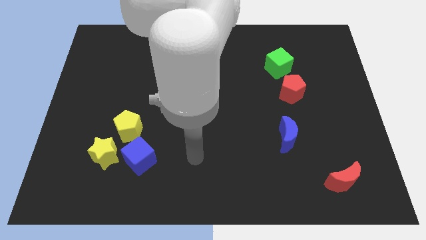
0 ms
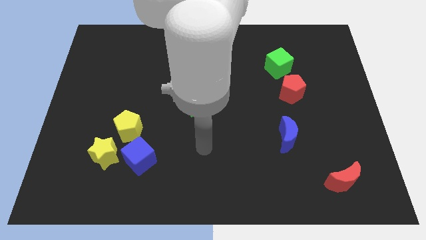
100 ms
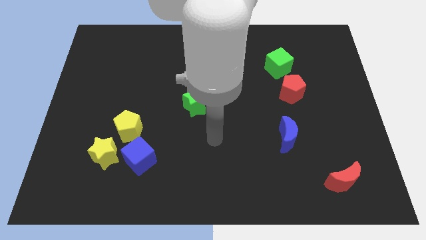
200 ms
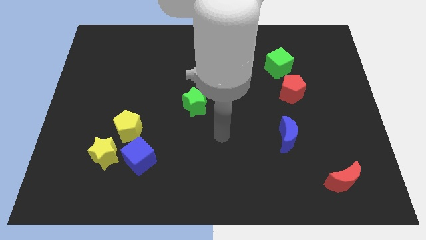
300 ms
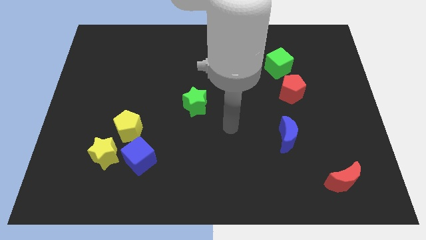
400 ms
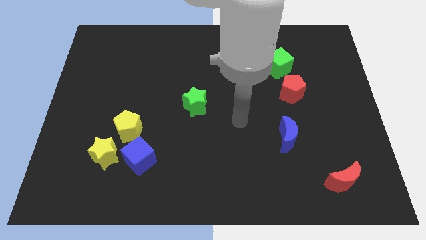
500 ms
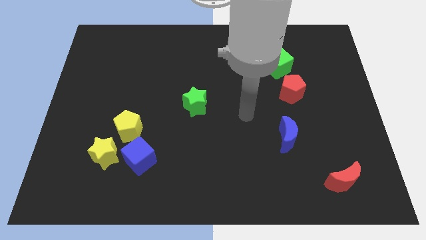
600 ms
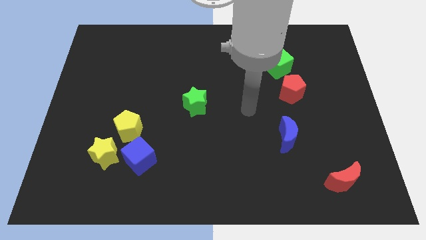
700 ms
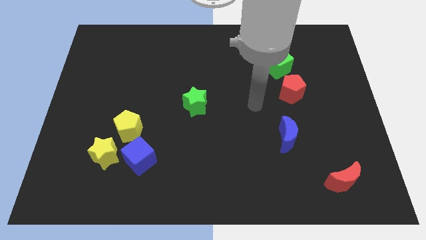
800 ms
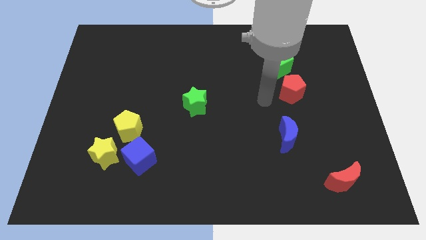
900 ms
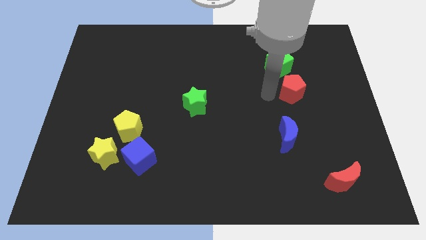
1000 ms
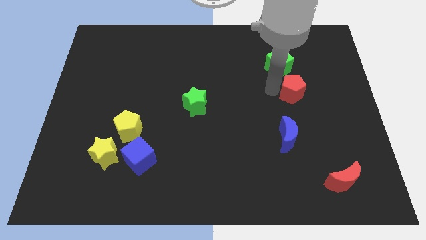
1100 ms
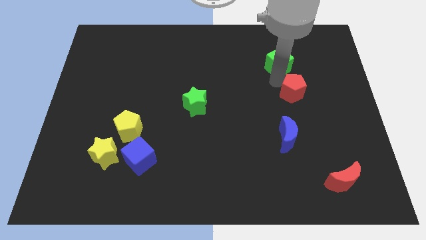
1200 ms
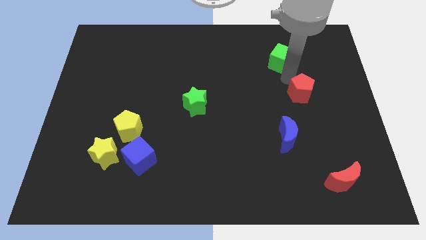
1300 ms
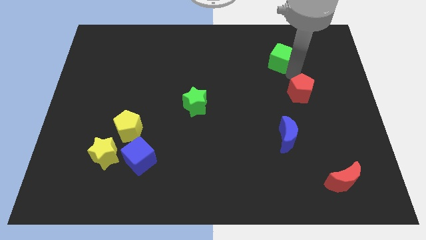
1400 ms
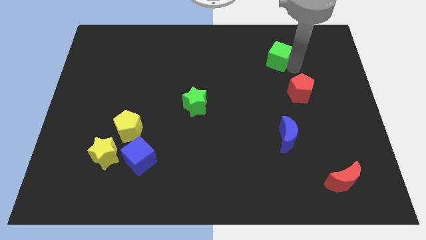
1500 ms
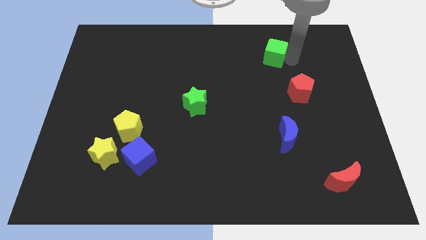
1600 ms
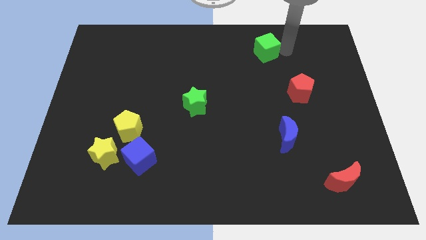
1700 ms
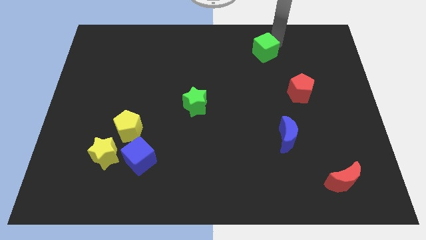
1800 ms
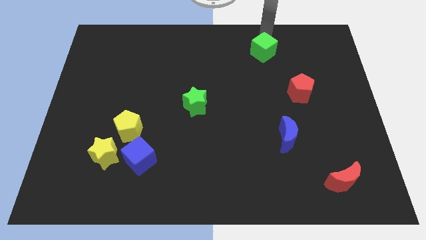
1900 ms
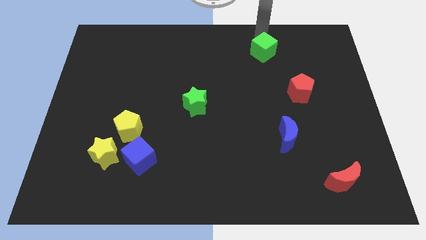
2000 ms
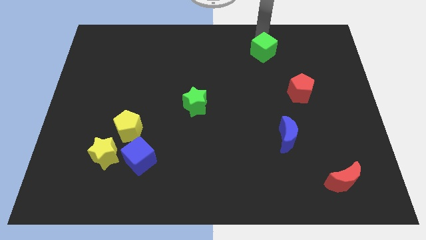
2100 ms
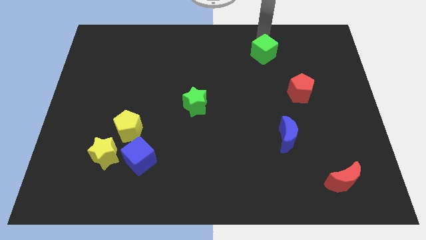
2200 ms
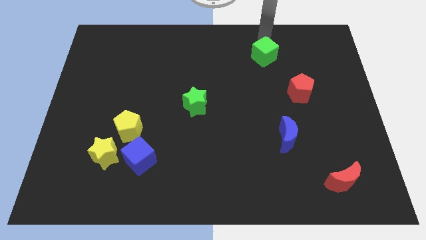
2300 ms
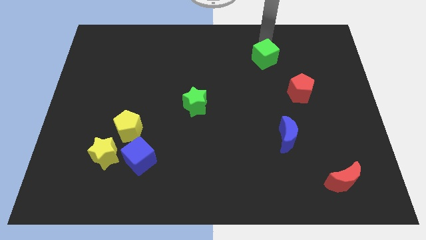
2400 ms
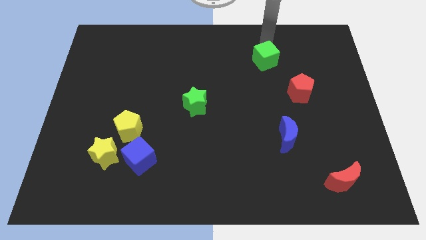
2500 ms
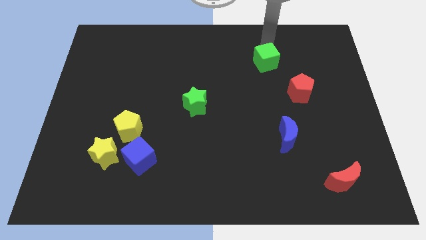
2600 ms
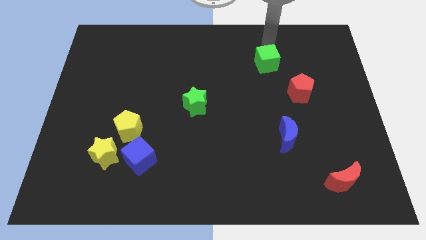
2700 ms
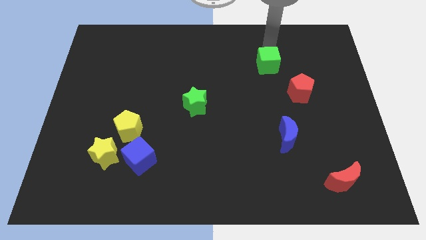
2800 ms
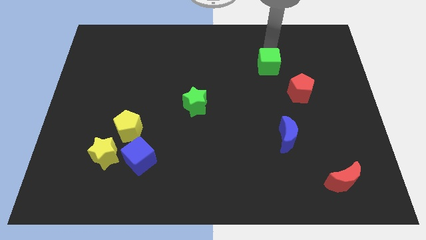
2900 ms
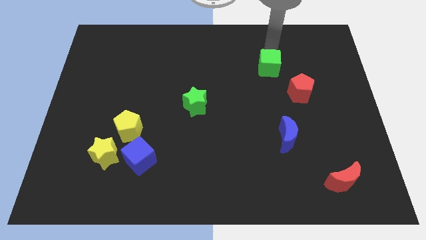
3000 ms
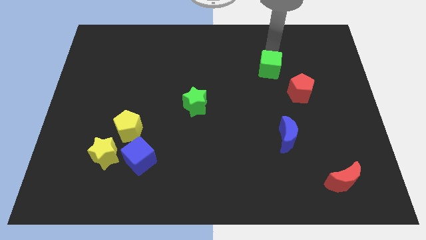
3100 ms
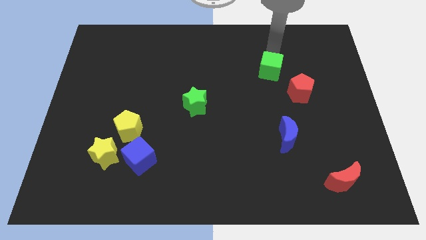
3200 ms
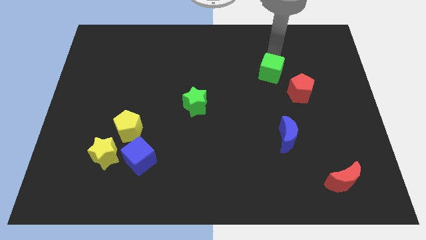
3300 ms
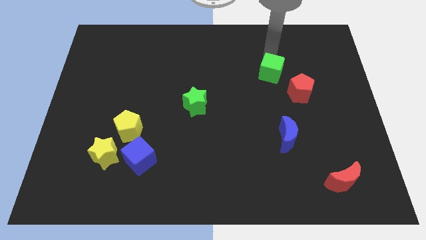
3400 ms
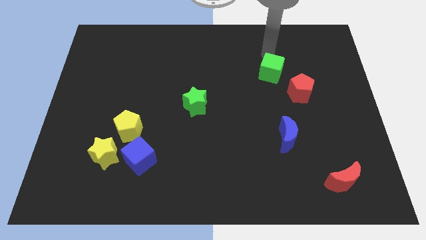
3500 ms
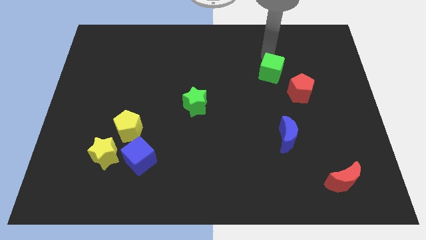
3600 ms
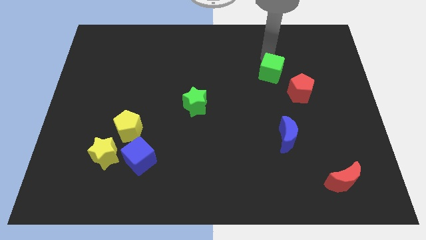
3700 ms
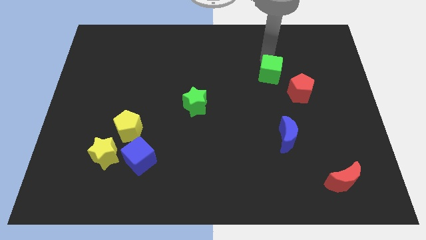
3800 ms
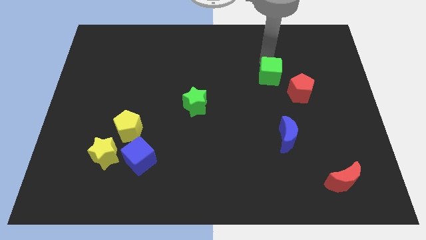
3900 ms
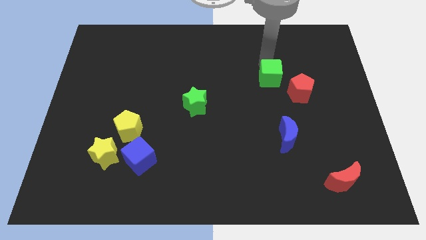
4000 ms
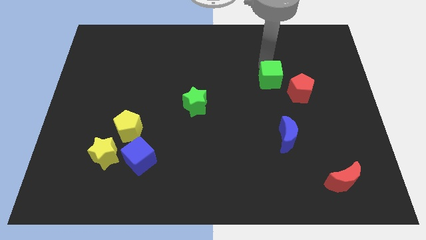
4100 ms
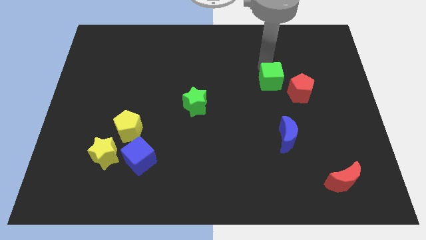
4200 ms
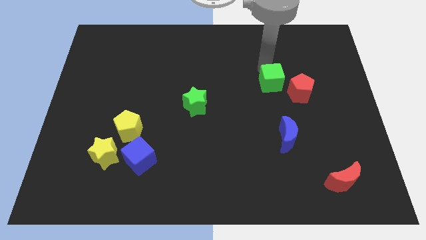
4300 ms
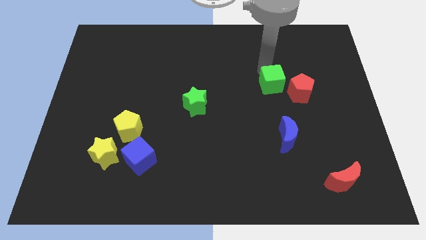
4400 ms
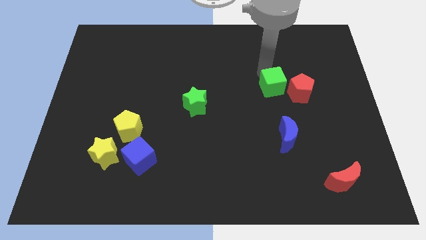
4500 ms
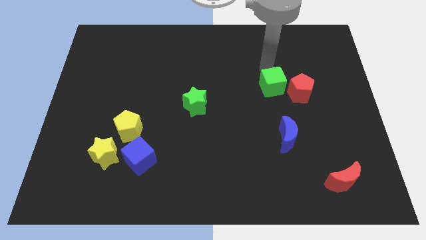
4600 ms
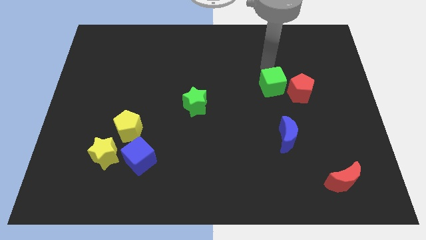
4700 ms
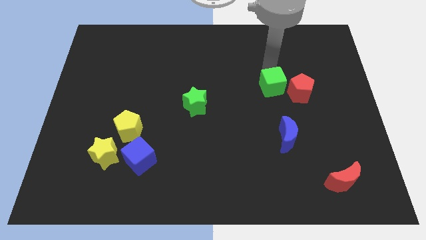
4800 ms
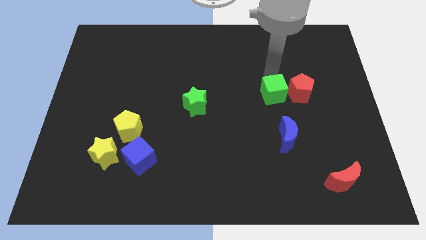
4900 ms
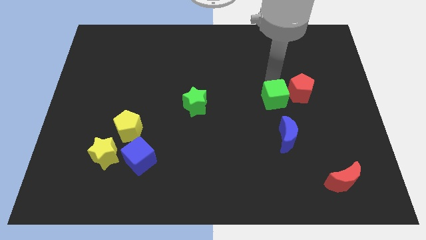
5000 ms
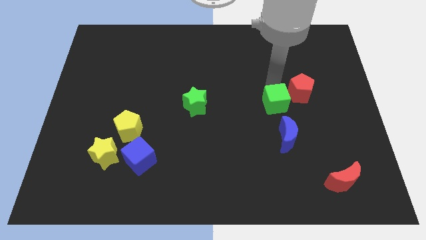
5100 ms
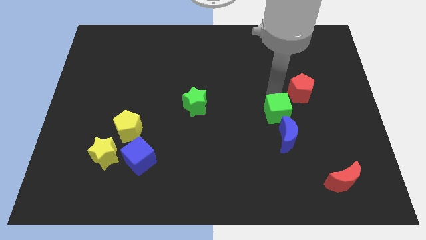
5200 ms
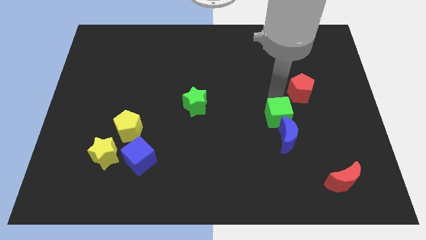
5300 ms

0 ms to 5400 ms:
put the green cube close to the blue moon
